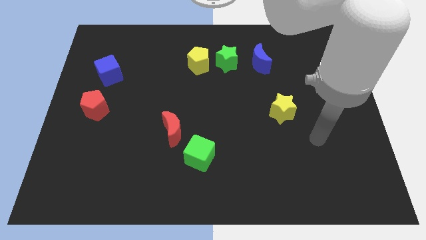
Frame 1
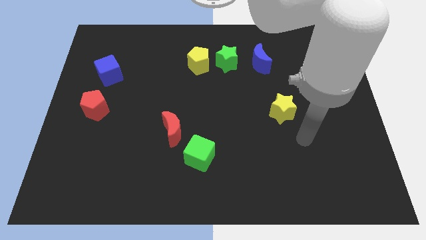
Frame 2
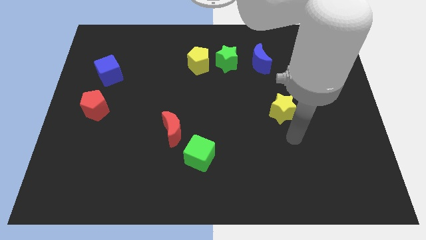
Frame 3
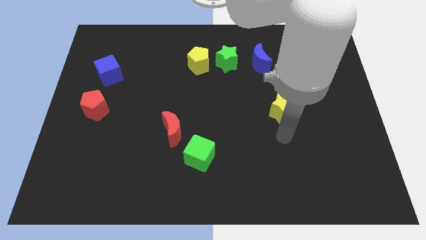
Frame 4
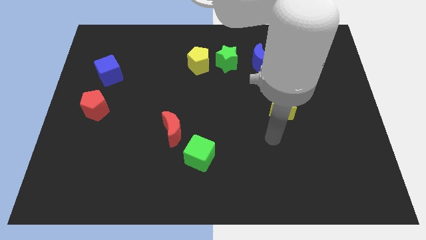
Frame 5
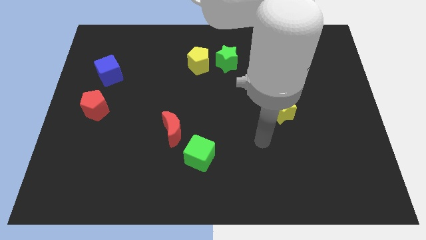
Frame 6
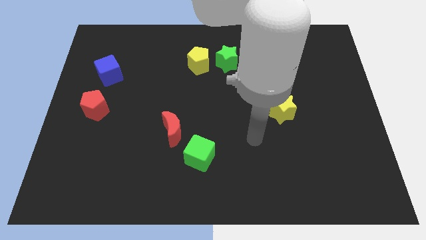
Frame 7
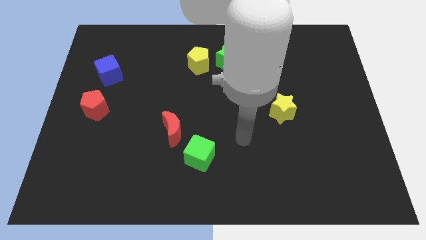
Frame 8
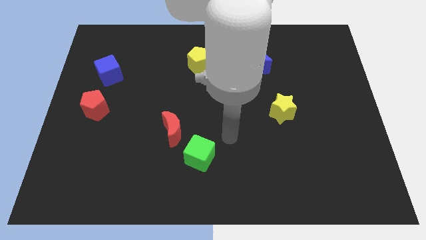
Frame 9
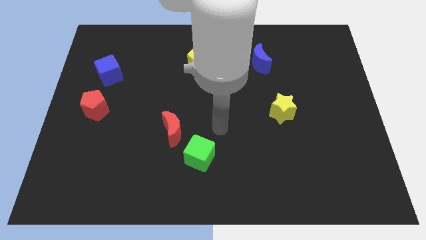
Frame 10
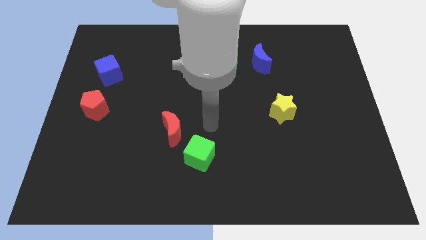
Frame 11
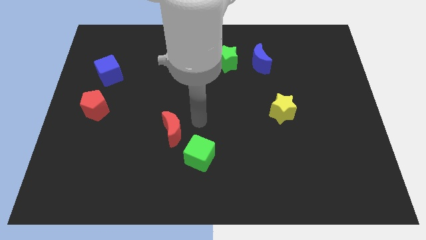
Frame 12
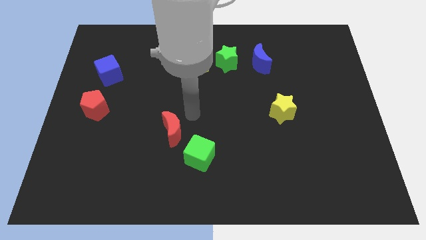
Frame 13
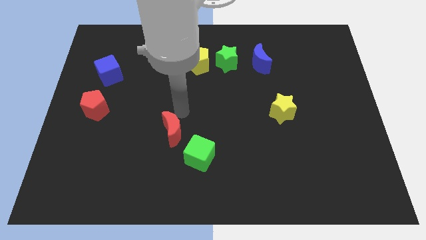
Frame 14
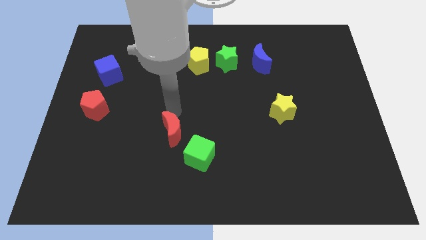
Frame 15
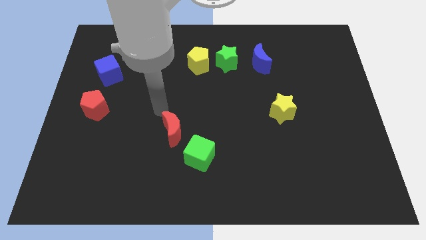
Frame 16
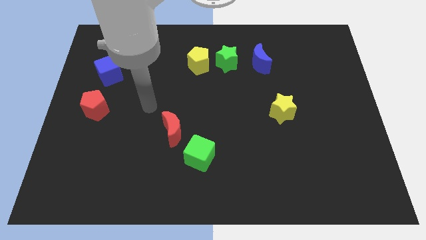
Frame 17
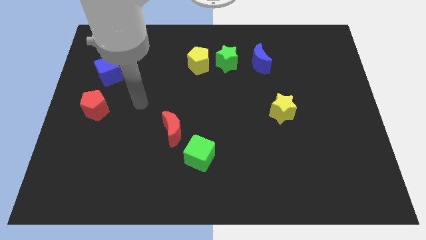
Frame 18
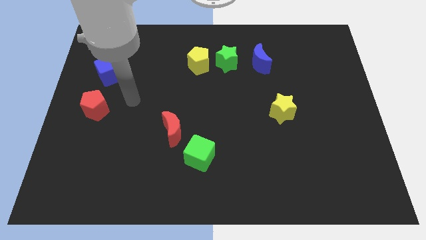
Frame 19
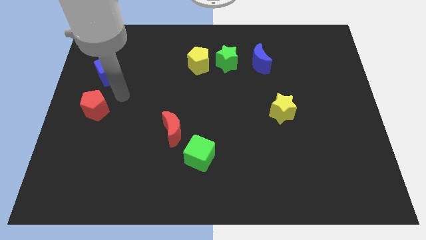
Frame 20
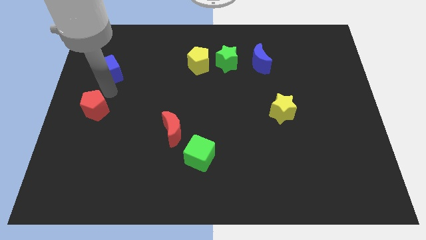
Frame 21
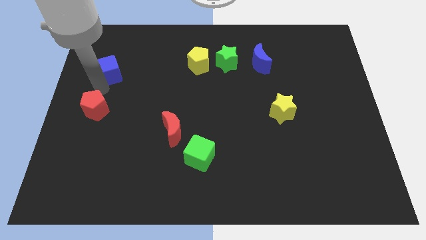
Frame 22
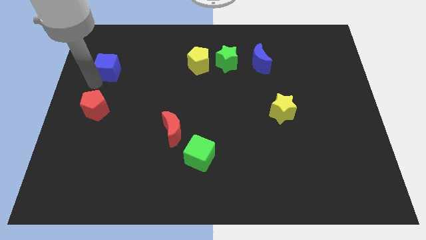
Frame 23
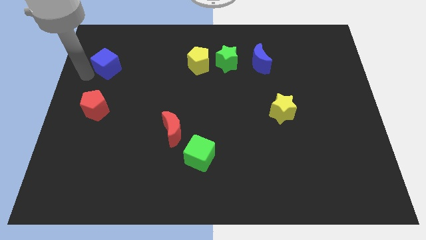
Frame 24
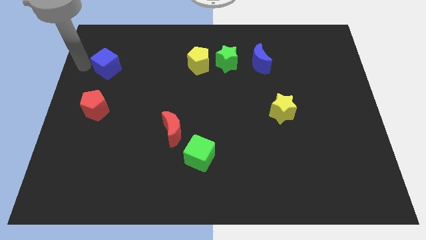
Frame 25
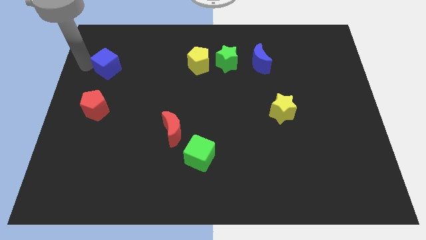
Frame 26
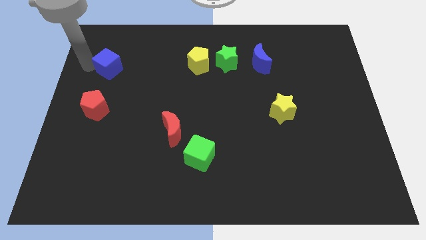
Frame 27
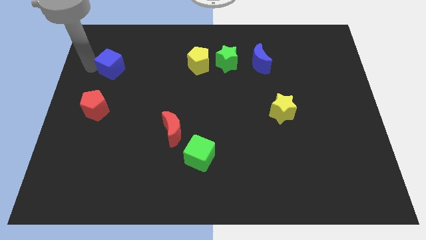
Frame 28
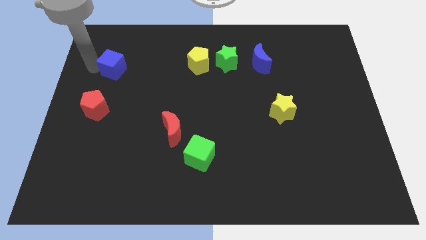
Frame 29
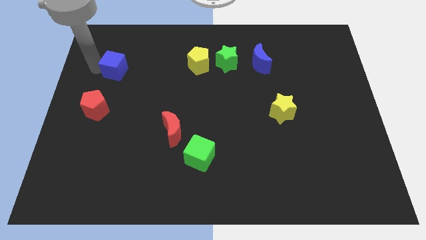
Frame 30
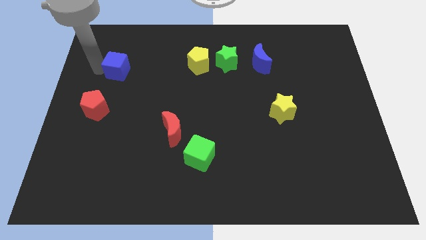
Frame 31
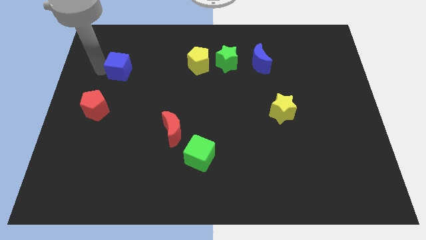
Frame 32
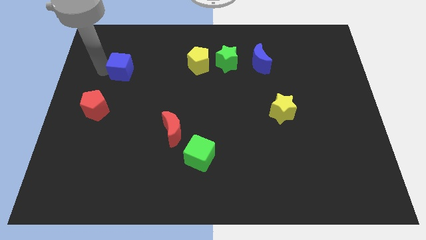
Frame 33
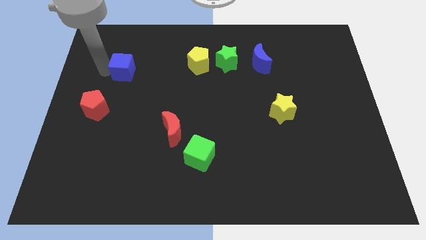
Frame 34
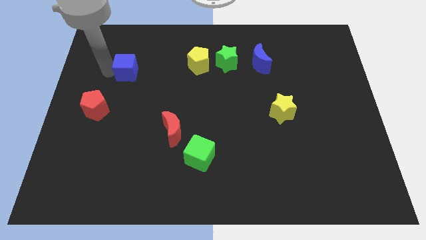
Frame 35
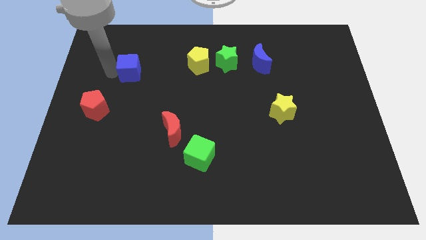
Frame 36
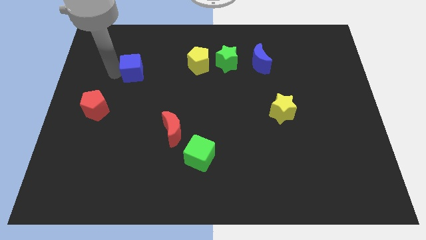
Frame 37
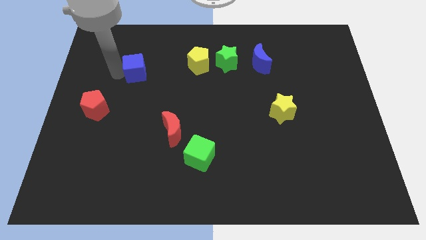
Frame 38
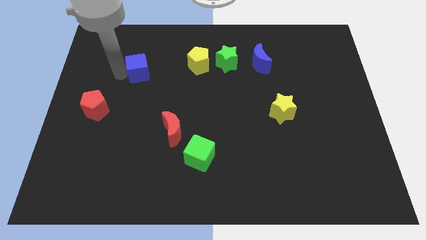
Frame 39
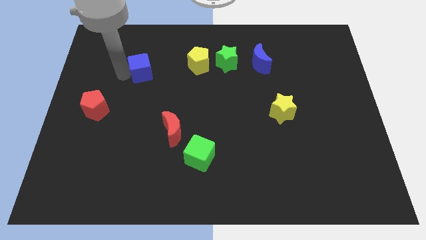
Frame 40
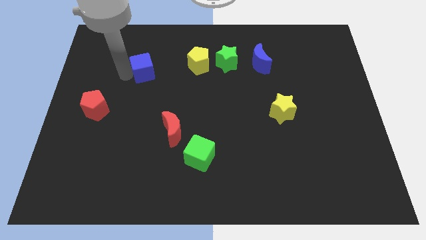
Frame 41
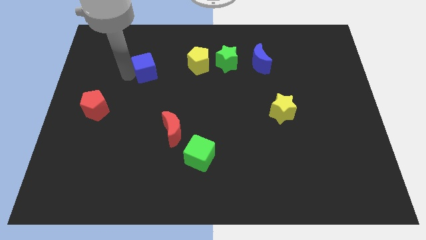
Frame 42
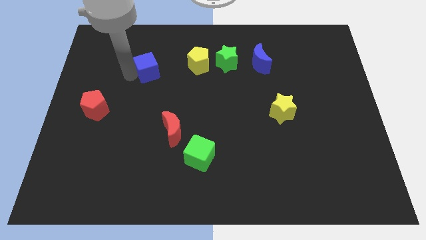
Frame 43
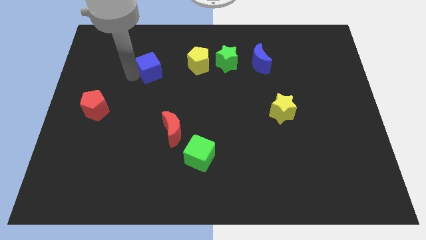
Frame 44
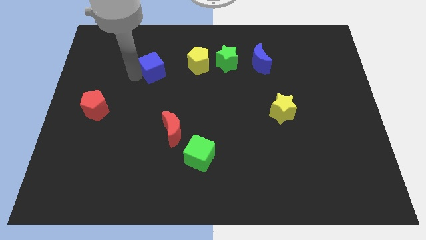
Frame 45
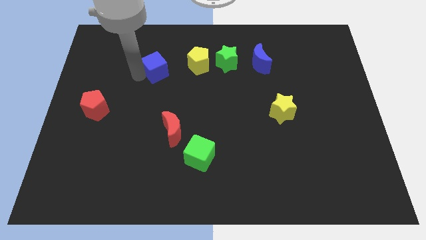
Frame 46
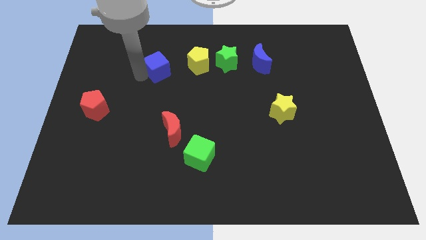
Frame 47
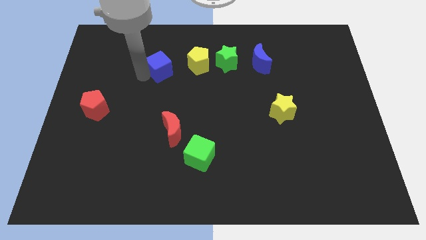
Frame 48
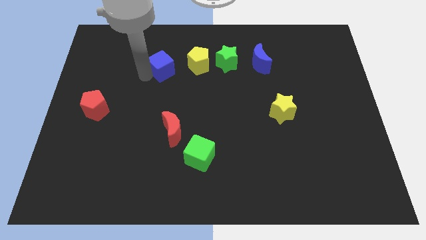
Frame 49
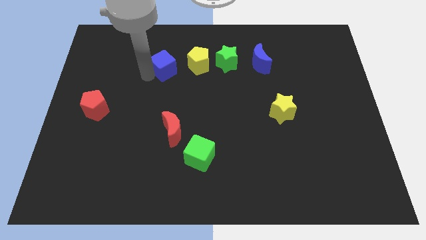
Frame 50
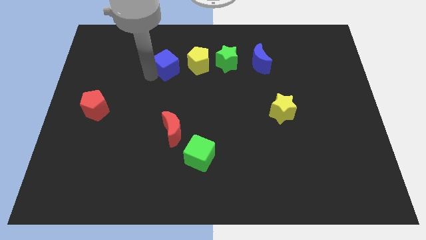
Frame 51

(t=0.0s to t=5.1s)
move the blue cube just left of the green star

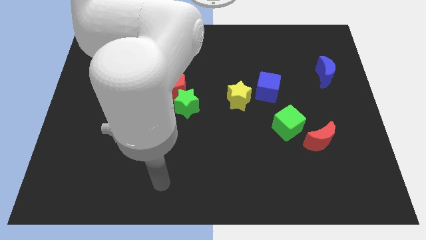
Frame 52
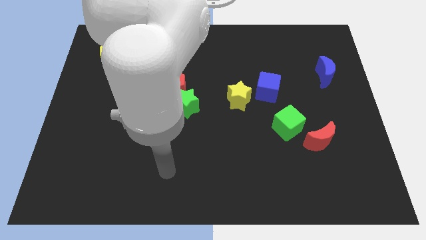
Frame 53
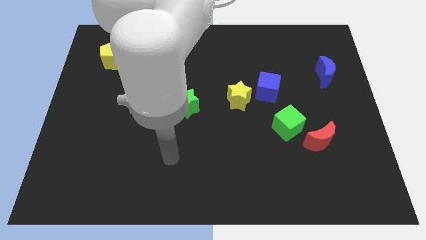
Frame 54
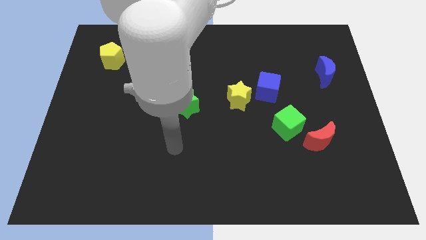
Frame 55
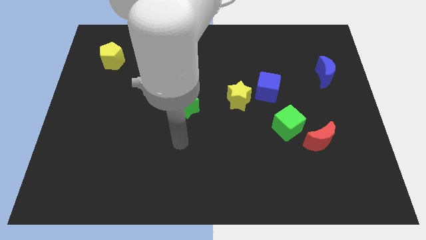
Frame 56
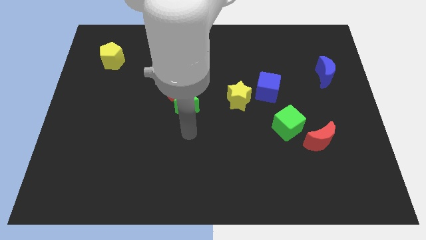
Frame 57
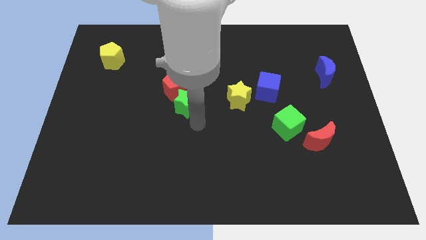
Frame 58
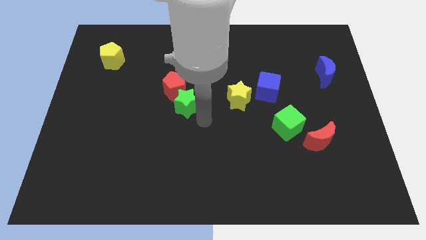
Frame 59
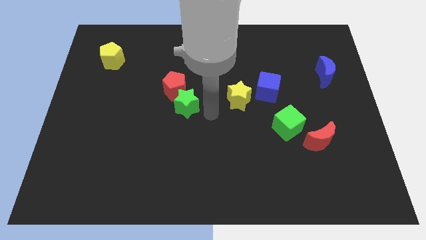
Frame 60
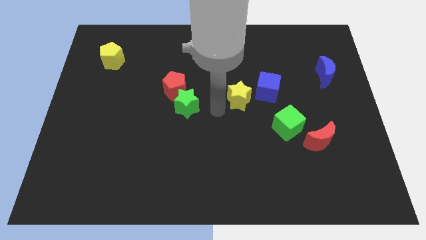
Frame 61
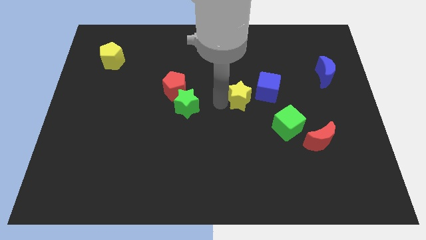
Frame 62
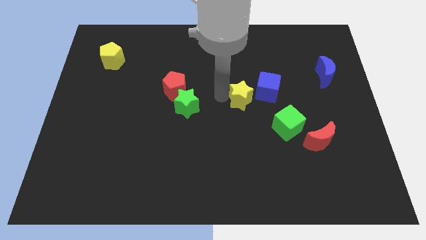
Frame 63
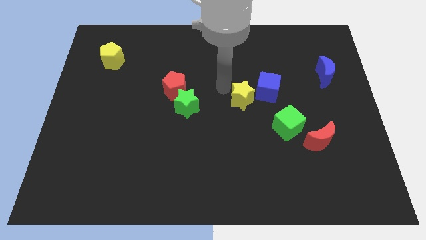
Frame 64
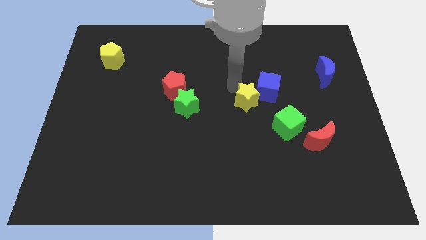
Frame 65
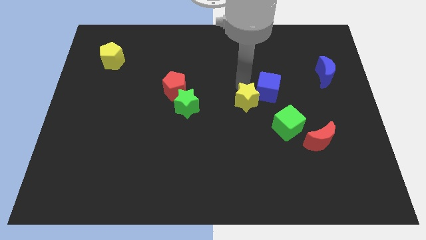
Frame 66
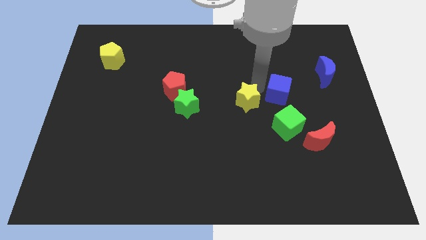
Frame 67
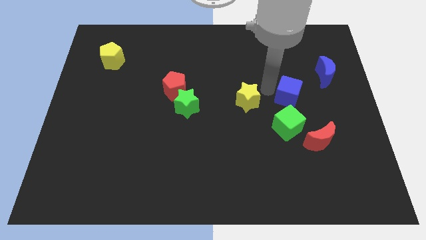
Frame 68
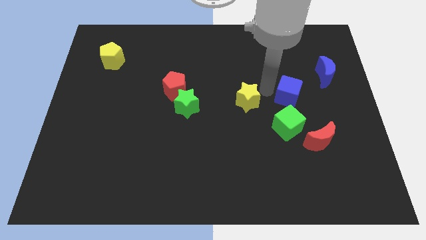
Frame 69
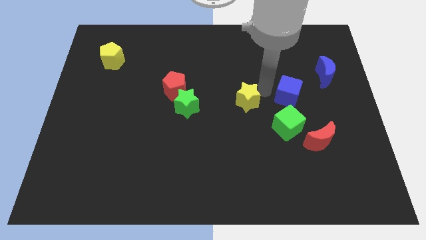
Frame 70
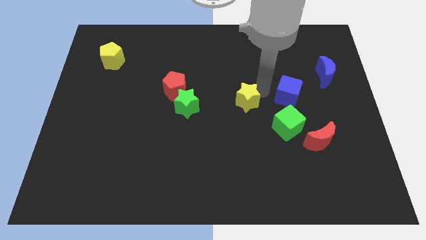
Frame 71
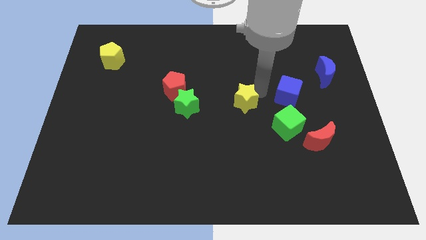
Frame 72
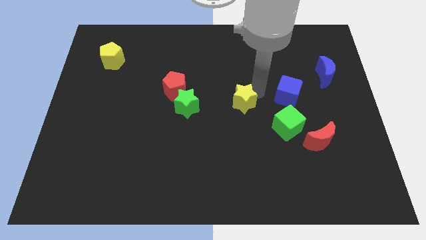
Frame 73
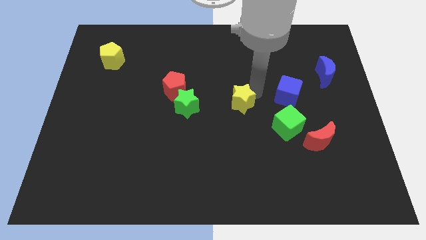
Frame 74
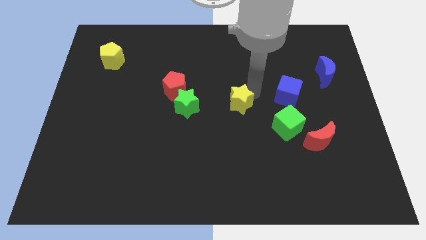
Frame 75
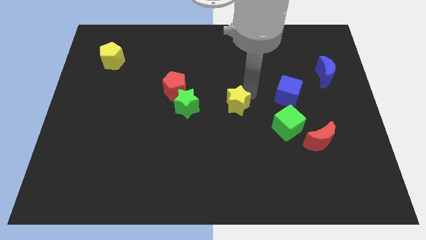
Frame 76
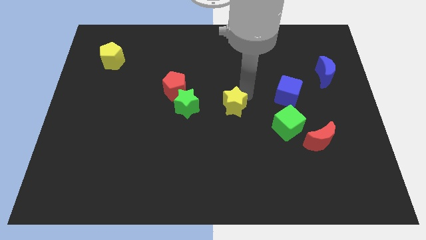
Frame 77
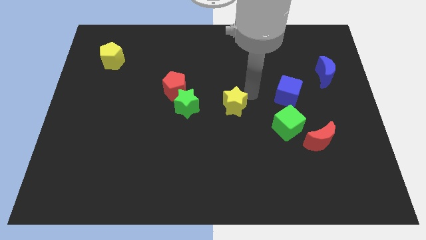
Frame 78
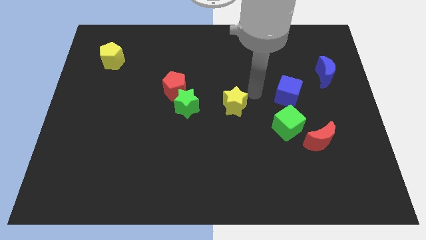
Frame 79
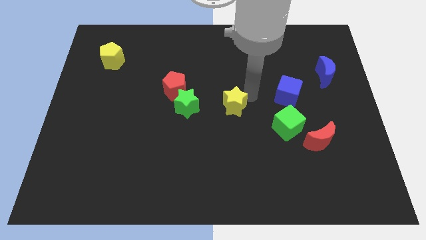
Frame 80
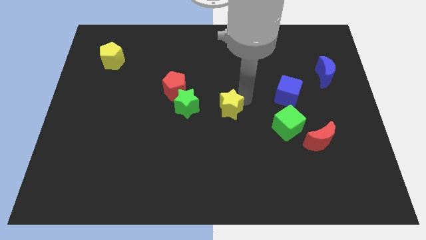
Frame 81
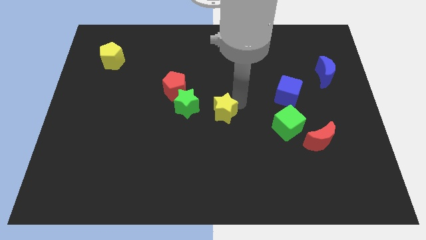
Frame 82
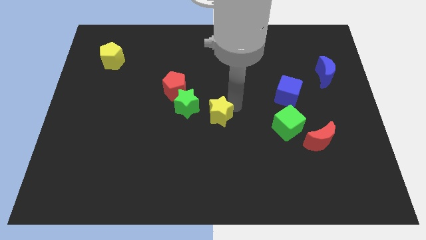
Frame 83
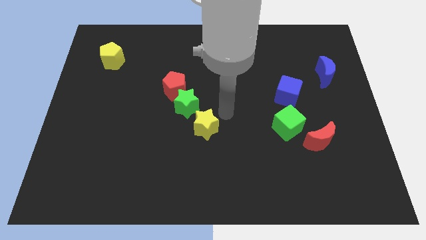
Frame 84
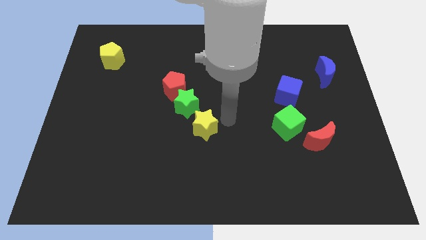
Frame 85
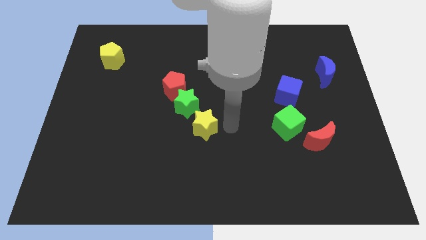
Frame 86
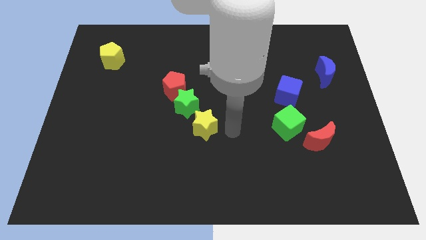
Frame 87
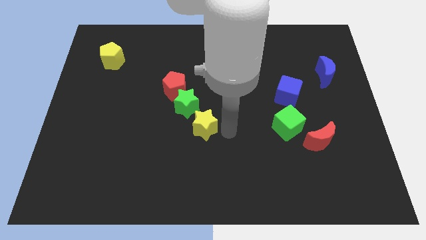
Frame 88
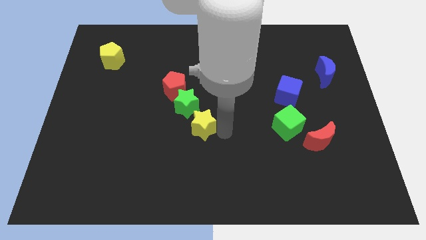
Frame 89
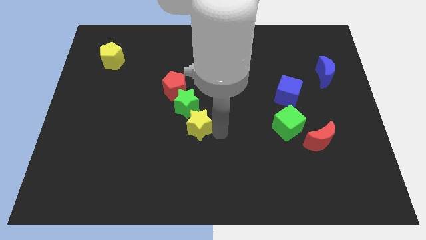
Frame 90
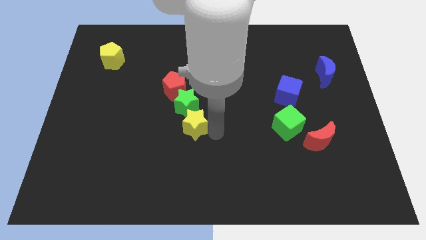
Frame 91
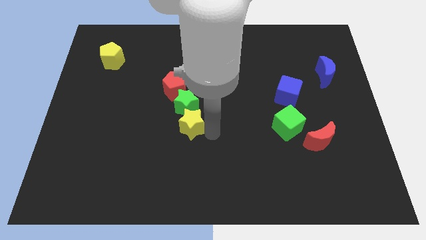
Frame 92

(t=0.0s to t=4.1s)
move the yellow star diagonally down and to the left of the green star
